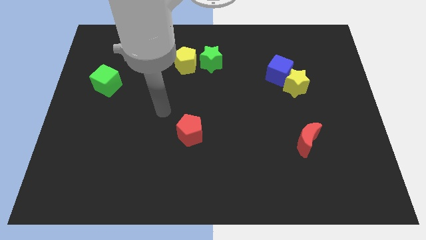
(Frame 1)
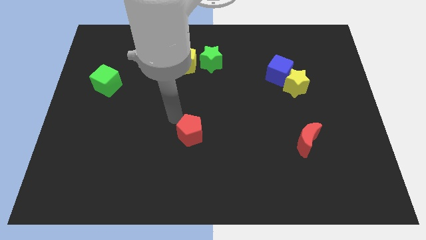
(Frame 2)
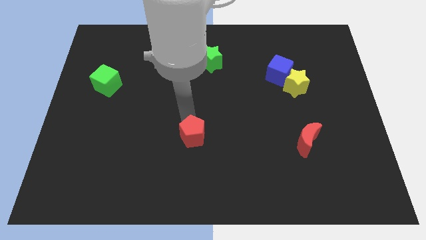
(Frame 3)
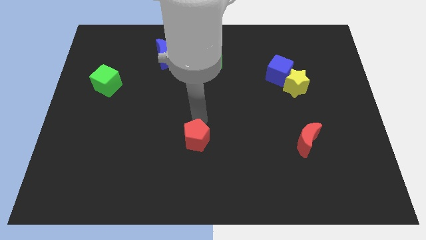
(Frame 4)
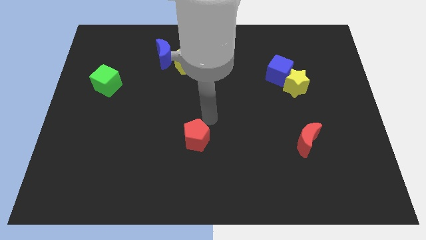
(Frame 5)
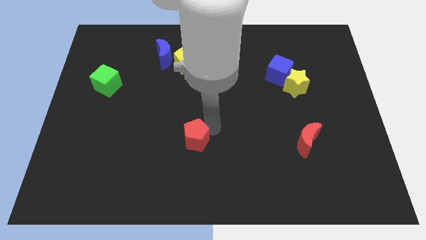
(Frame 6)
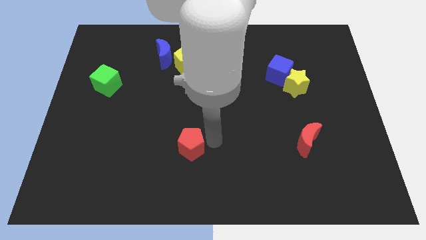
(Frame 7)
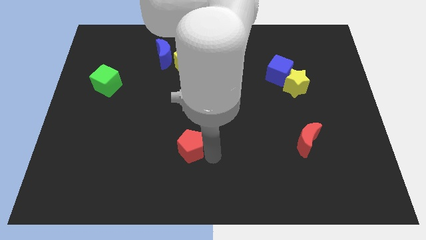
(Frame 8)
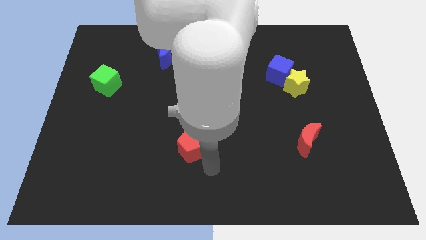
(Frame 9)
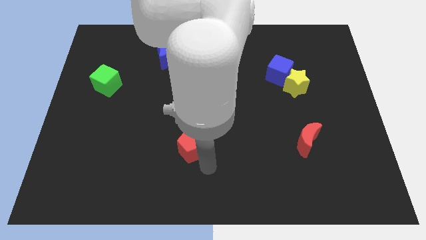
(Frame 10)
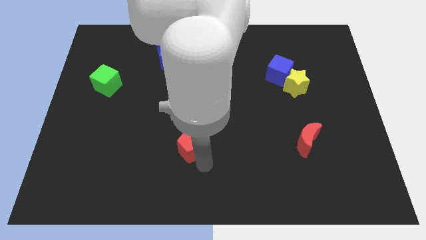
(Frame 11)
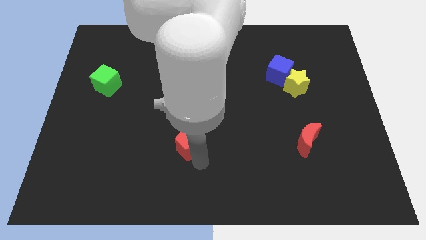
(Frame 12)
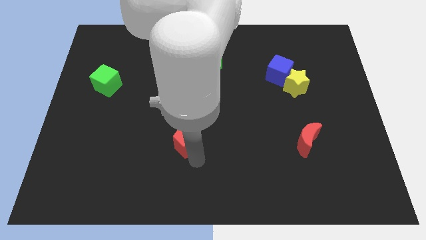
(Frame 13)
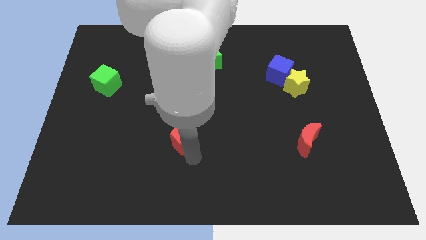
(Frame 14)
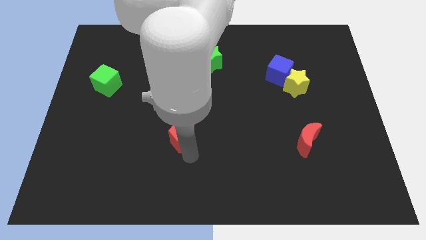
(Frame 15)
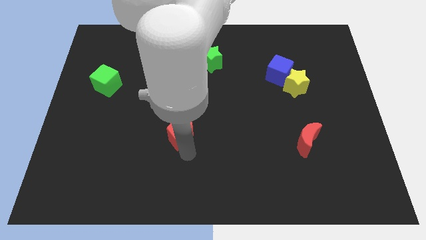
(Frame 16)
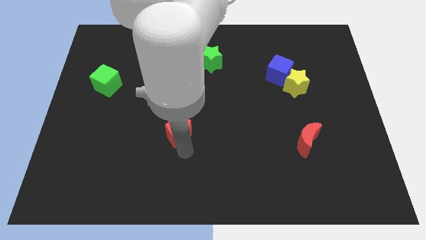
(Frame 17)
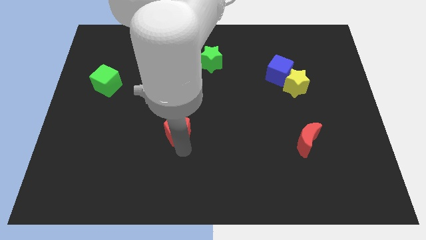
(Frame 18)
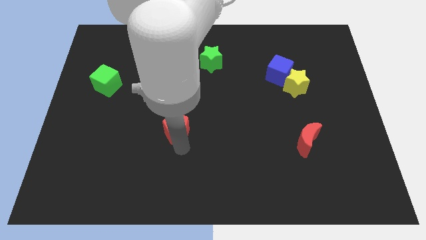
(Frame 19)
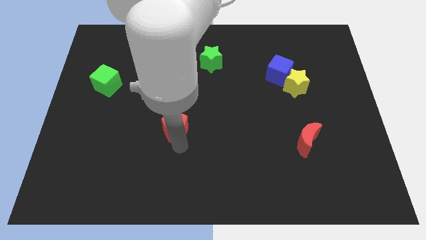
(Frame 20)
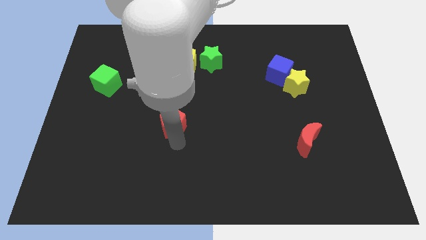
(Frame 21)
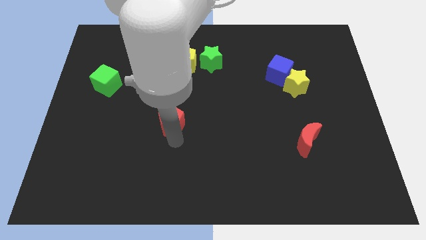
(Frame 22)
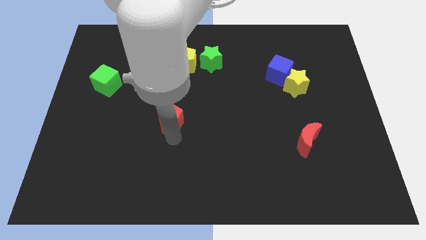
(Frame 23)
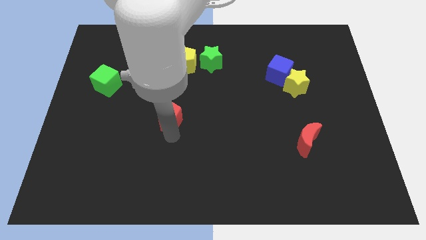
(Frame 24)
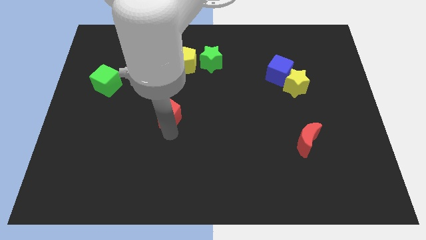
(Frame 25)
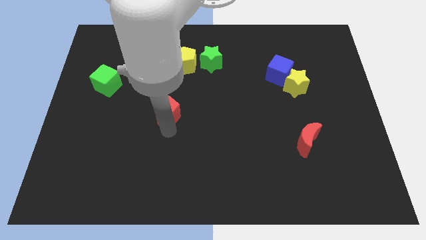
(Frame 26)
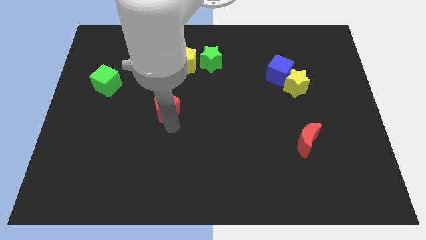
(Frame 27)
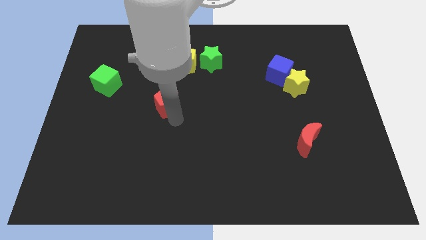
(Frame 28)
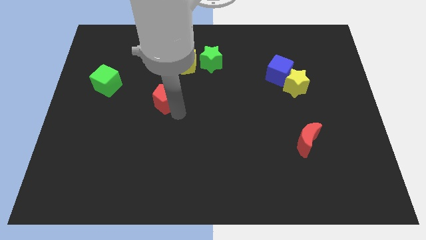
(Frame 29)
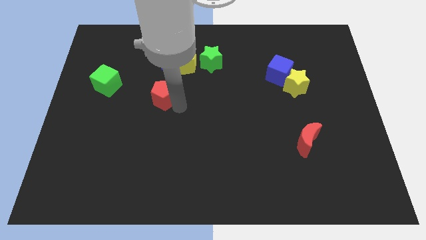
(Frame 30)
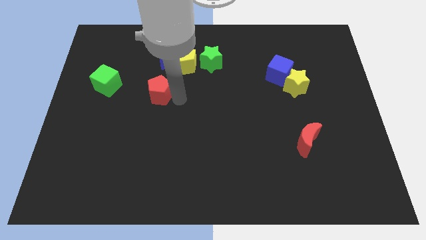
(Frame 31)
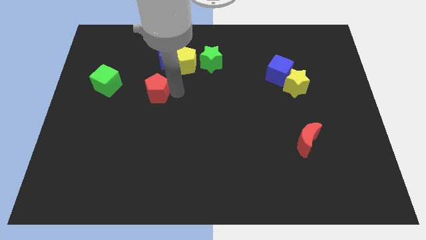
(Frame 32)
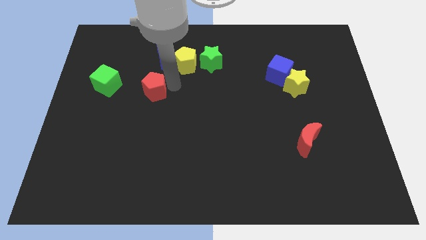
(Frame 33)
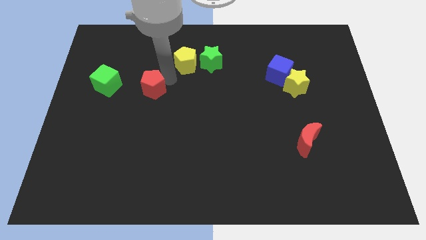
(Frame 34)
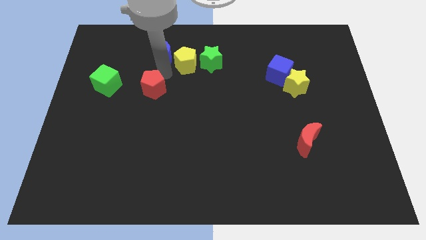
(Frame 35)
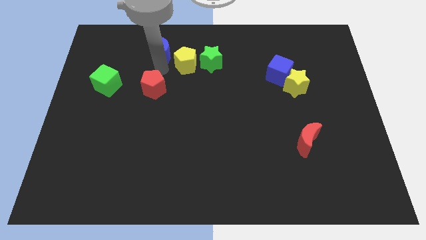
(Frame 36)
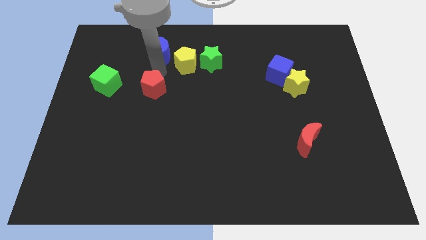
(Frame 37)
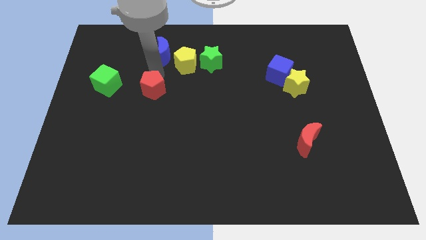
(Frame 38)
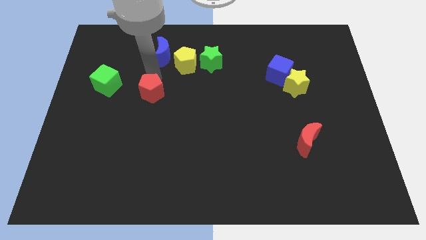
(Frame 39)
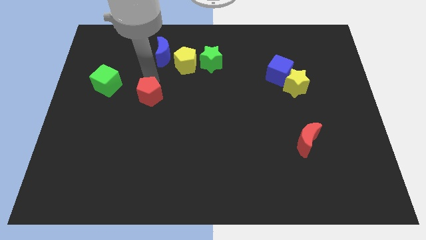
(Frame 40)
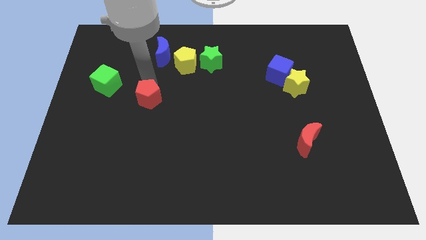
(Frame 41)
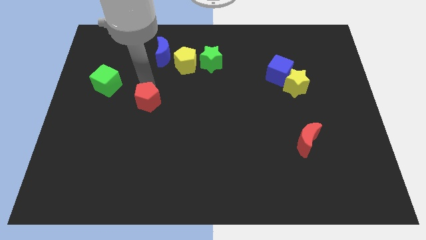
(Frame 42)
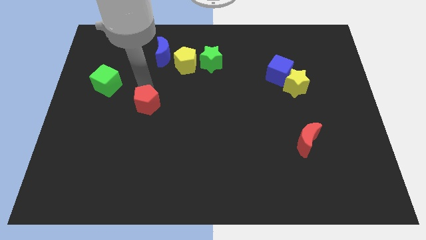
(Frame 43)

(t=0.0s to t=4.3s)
slightly push the red pentagon to the left

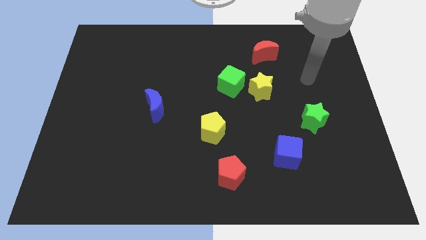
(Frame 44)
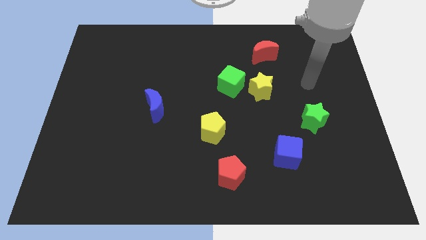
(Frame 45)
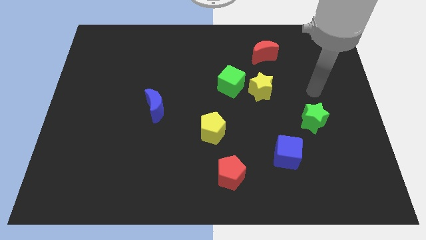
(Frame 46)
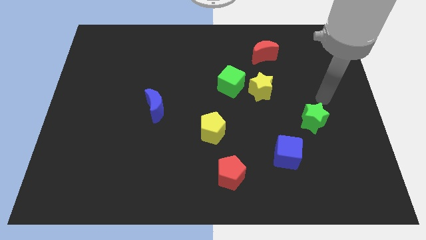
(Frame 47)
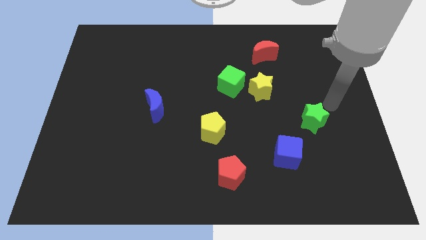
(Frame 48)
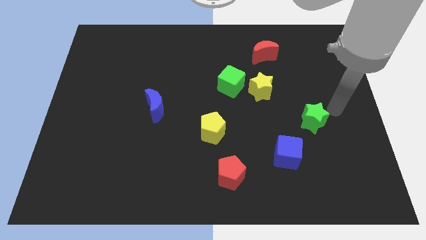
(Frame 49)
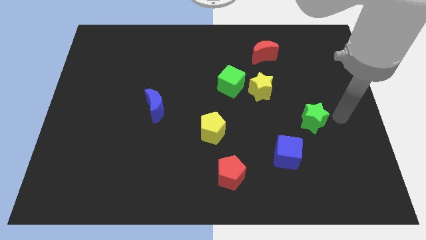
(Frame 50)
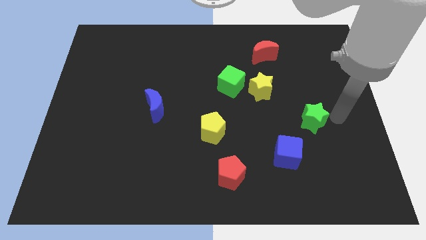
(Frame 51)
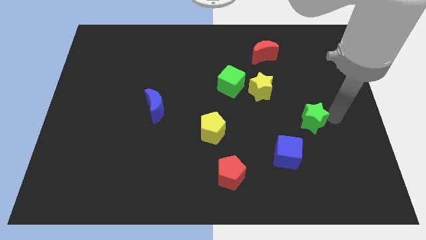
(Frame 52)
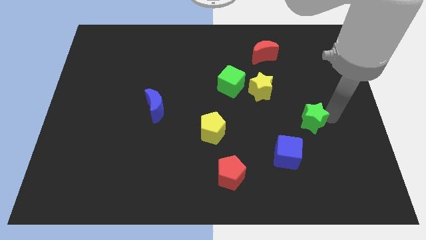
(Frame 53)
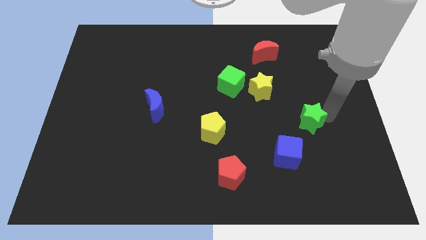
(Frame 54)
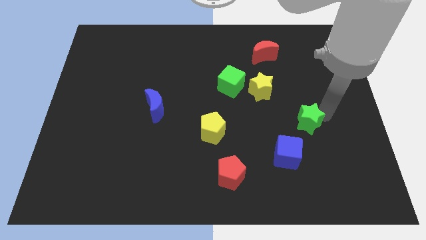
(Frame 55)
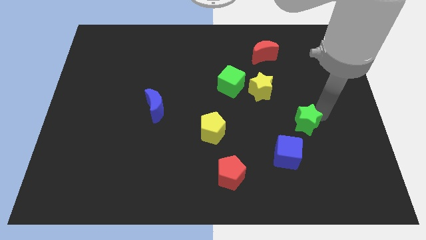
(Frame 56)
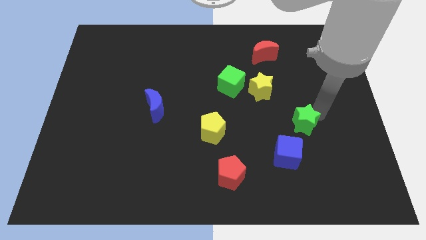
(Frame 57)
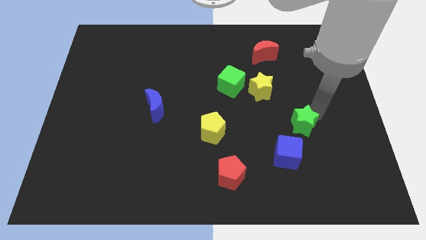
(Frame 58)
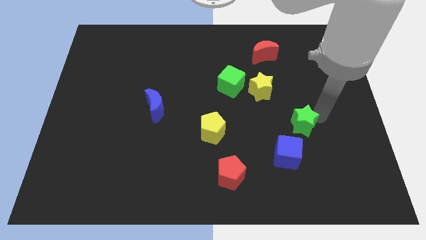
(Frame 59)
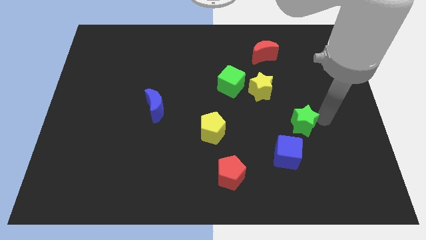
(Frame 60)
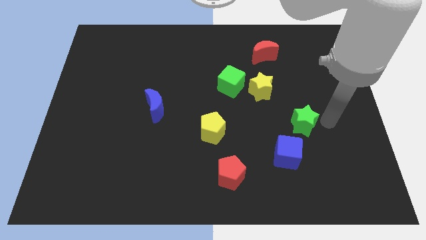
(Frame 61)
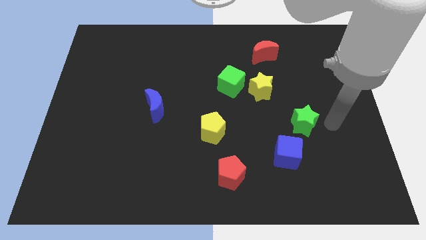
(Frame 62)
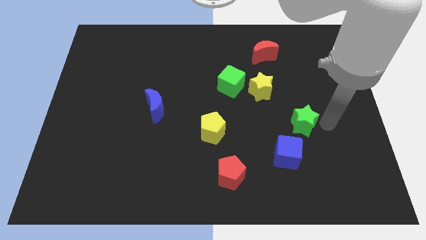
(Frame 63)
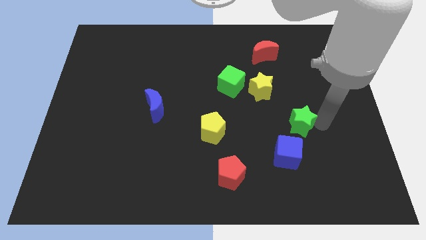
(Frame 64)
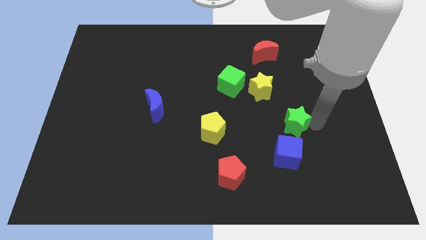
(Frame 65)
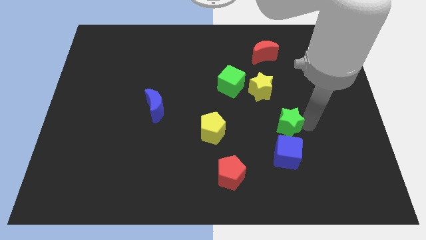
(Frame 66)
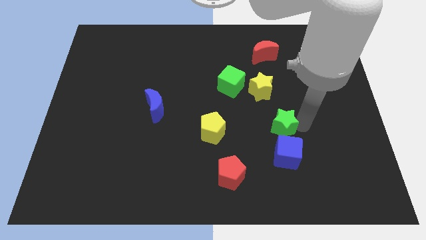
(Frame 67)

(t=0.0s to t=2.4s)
slightly push the green star to the left

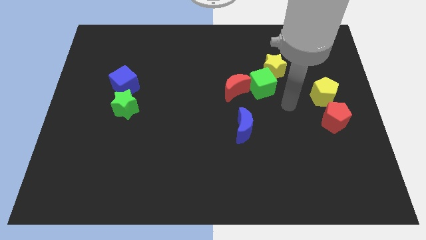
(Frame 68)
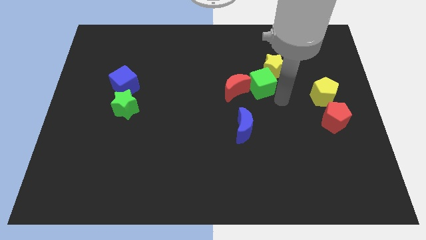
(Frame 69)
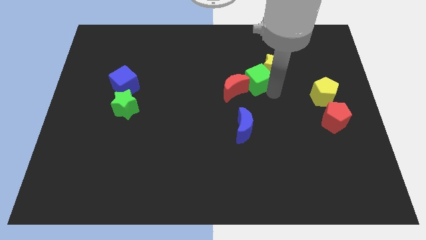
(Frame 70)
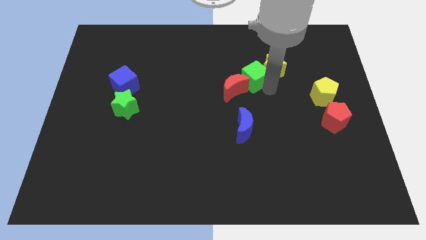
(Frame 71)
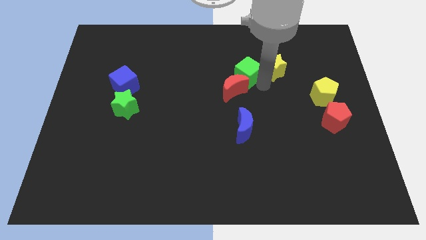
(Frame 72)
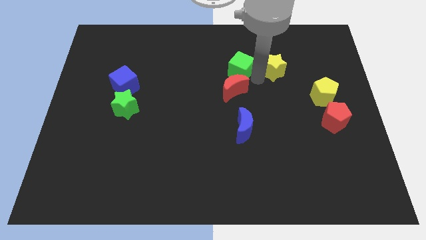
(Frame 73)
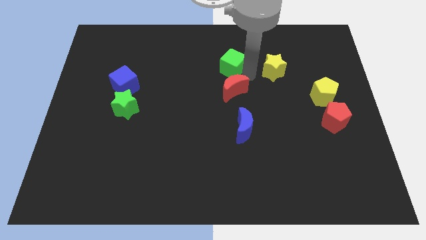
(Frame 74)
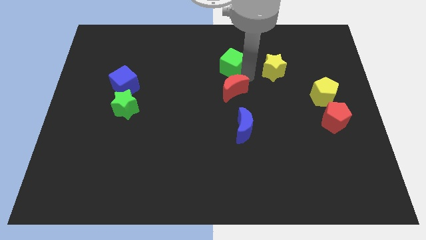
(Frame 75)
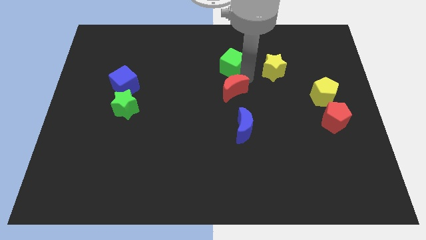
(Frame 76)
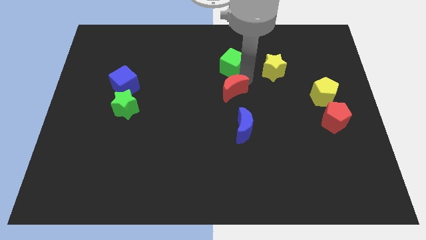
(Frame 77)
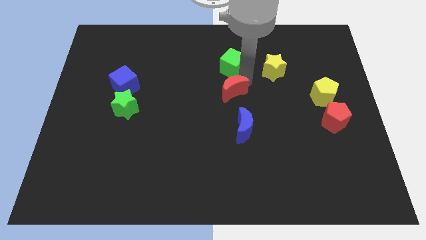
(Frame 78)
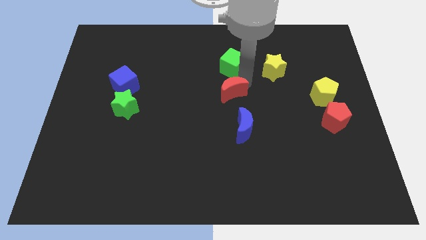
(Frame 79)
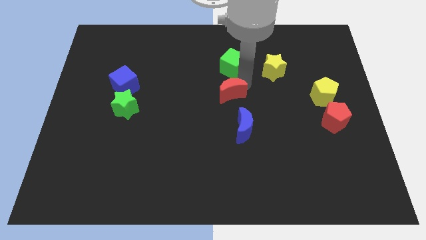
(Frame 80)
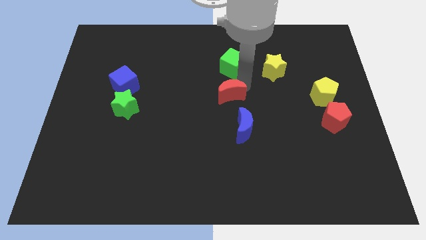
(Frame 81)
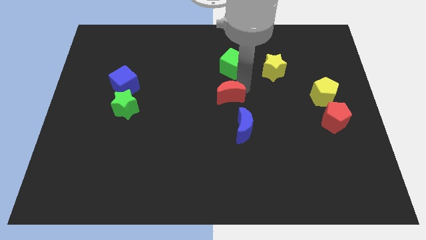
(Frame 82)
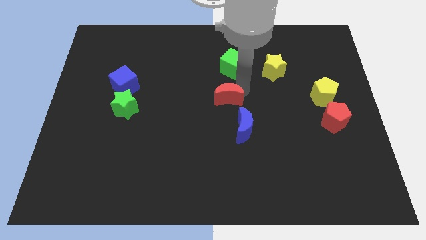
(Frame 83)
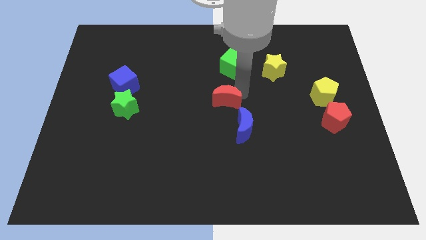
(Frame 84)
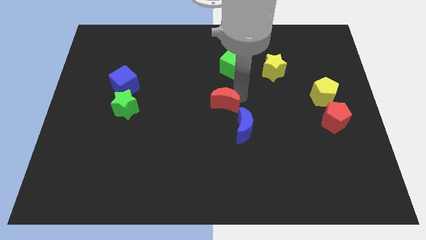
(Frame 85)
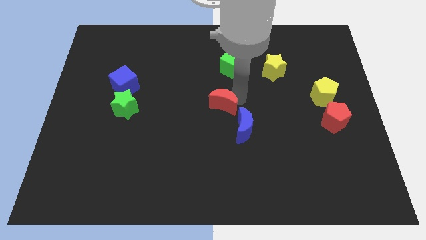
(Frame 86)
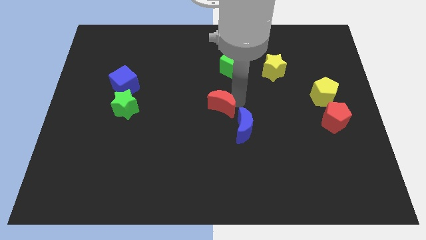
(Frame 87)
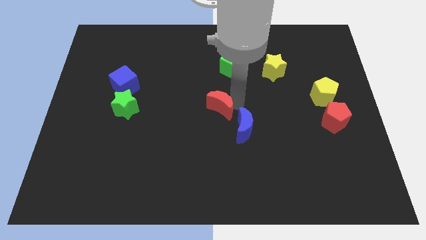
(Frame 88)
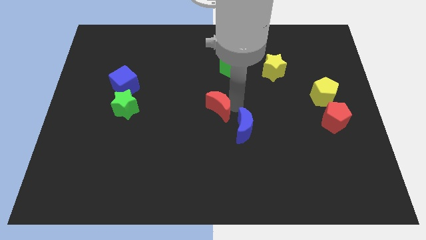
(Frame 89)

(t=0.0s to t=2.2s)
push the red moon a bit down and then to the left
